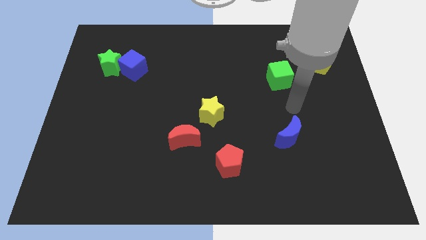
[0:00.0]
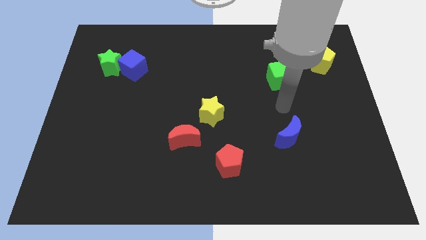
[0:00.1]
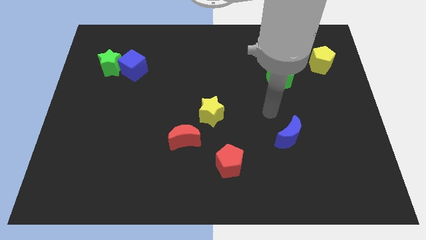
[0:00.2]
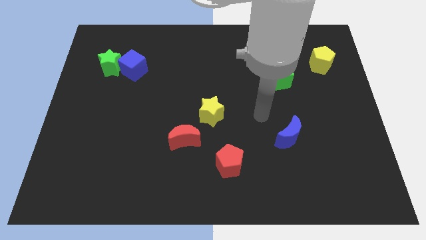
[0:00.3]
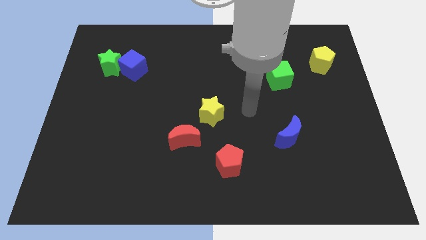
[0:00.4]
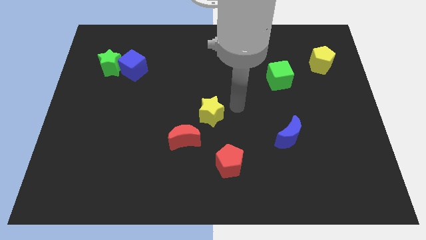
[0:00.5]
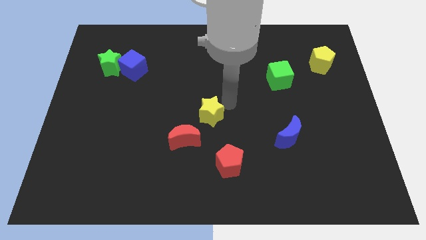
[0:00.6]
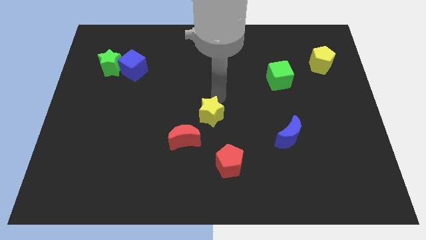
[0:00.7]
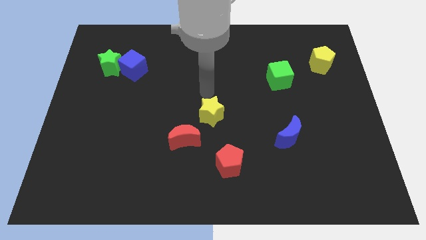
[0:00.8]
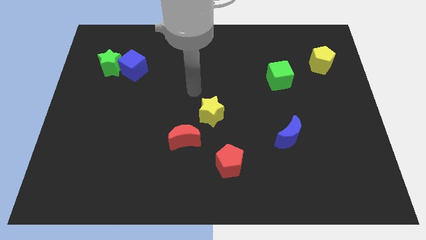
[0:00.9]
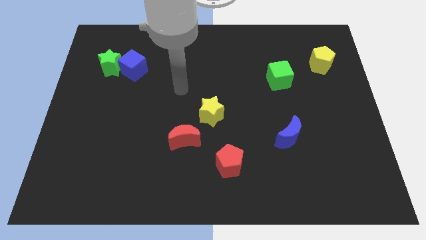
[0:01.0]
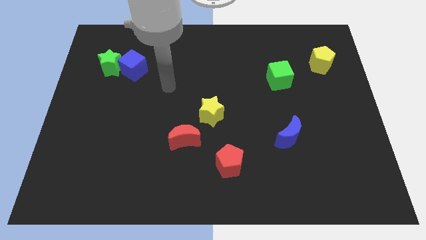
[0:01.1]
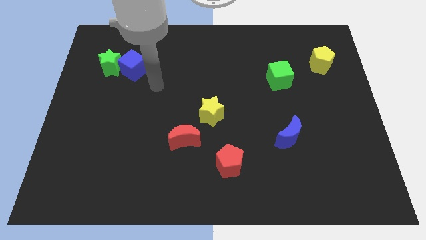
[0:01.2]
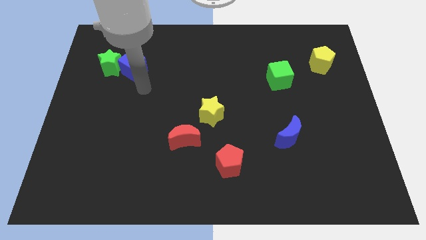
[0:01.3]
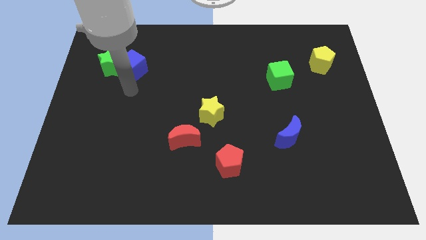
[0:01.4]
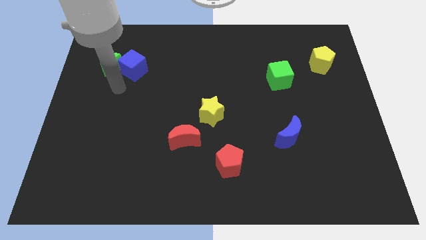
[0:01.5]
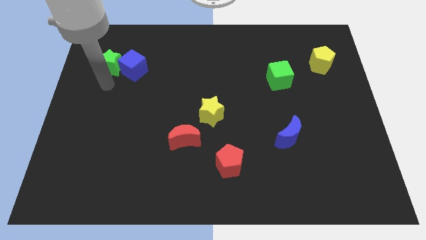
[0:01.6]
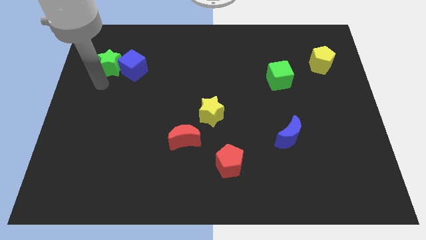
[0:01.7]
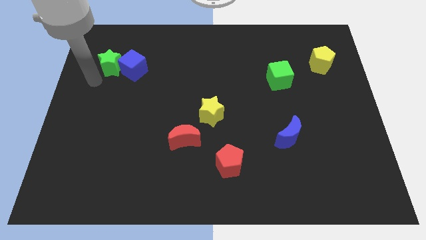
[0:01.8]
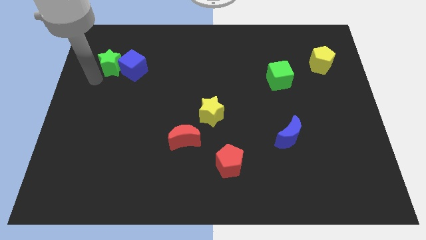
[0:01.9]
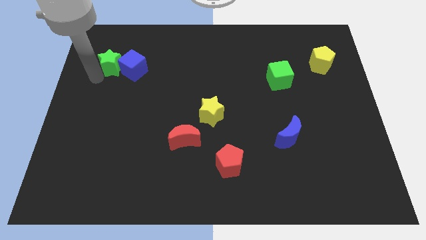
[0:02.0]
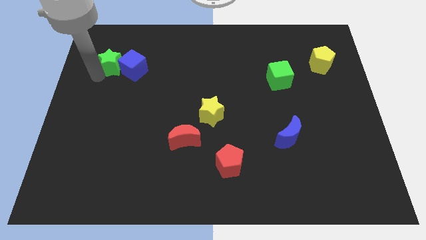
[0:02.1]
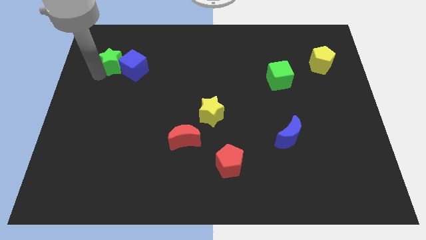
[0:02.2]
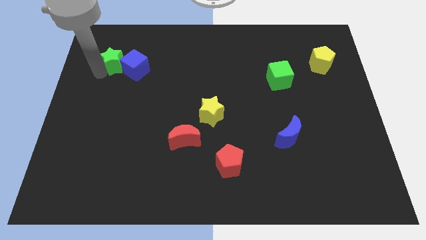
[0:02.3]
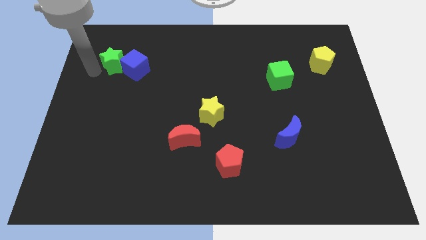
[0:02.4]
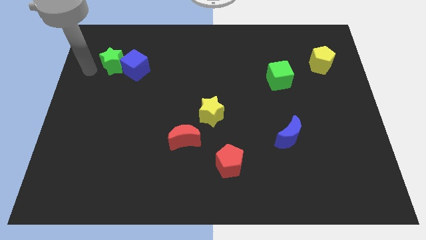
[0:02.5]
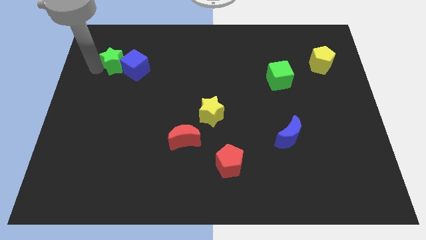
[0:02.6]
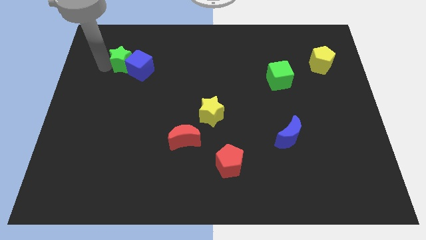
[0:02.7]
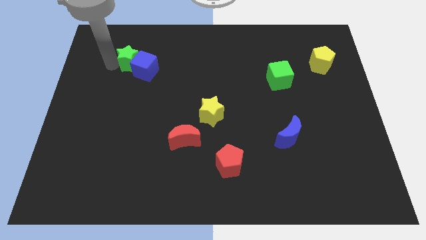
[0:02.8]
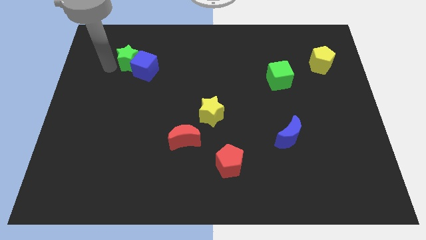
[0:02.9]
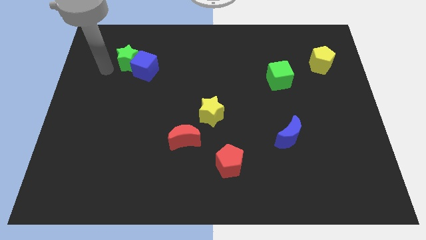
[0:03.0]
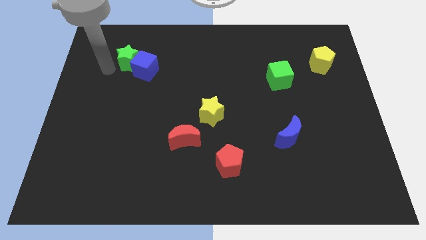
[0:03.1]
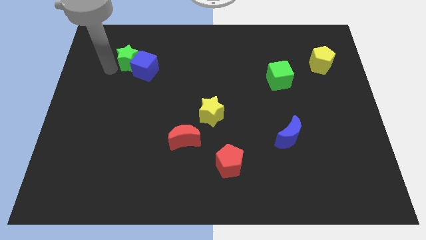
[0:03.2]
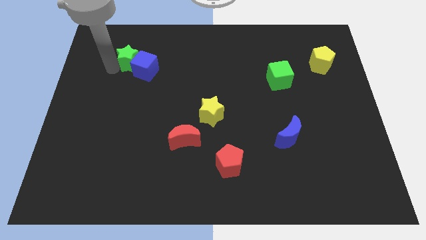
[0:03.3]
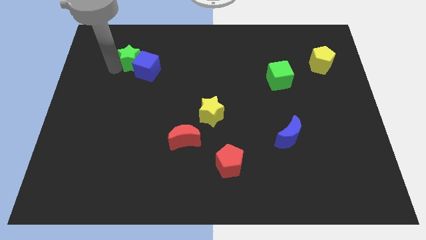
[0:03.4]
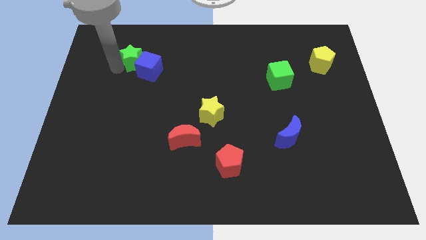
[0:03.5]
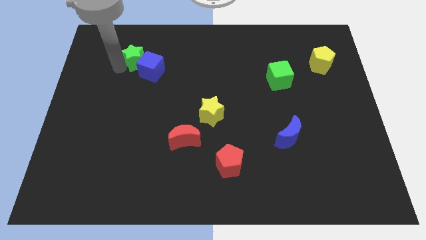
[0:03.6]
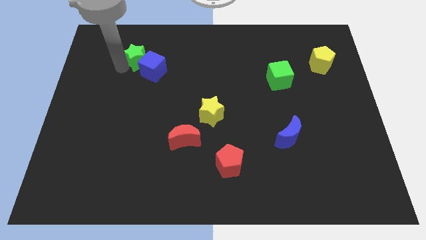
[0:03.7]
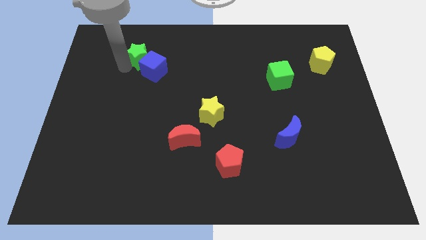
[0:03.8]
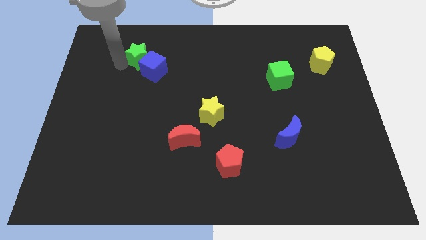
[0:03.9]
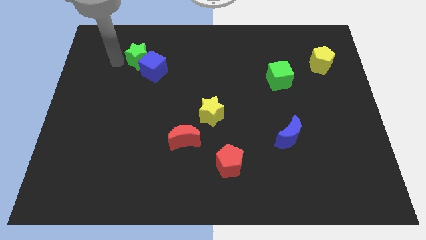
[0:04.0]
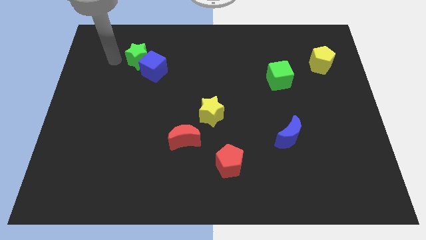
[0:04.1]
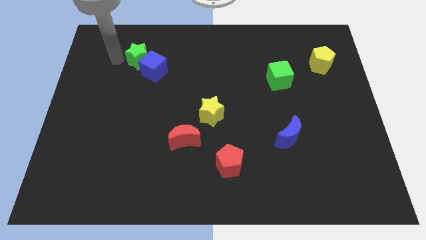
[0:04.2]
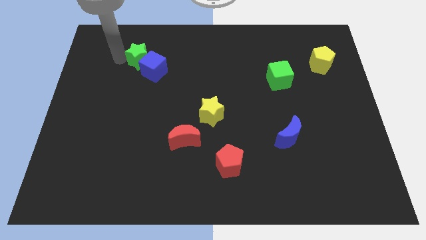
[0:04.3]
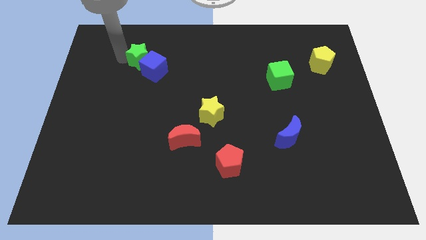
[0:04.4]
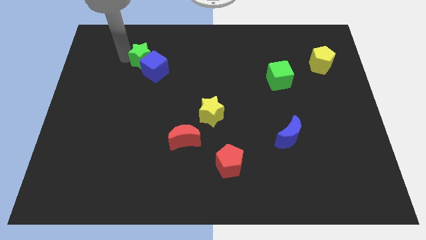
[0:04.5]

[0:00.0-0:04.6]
slide the green star a little right

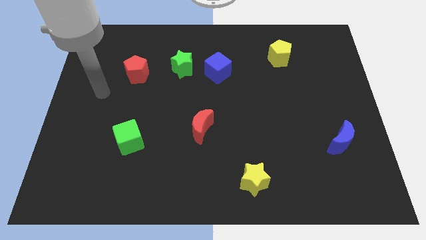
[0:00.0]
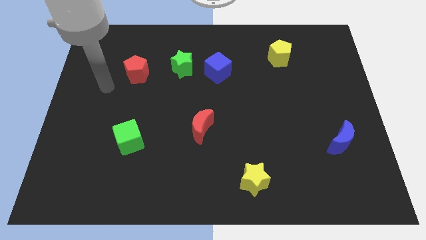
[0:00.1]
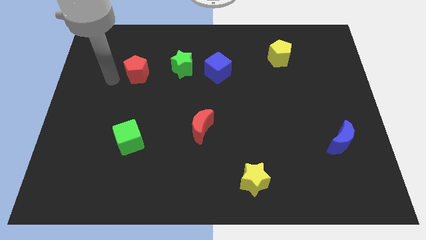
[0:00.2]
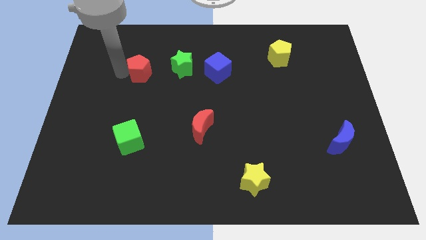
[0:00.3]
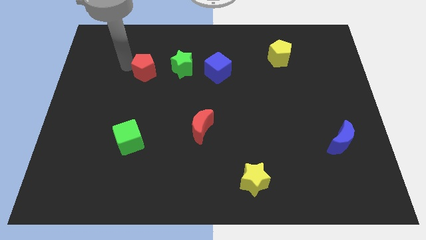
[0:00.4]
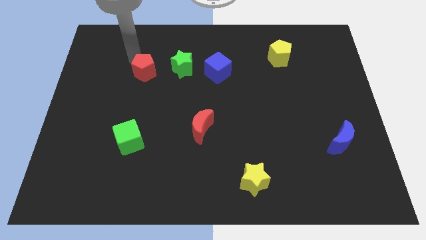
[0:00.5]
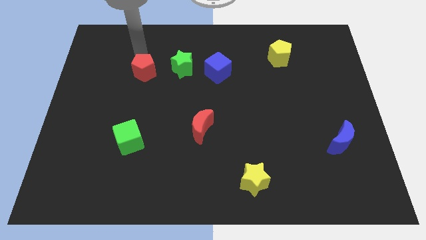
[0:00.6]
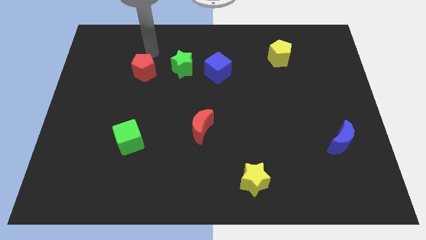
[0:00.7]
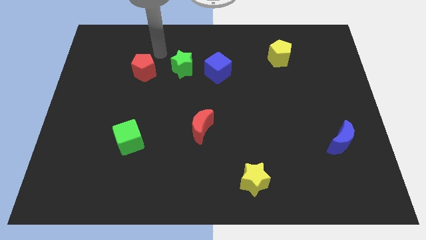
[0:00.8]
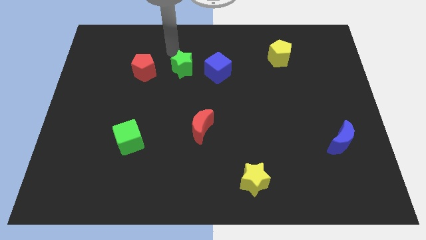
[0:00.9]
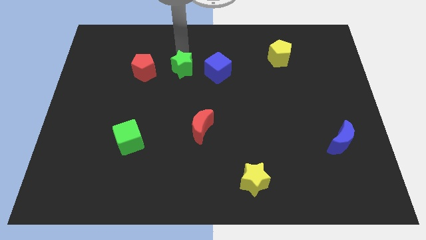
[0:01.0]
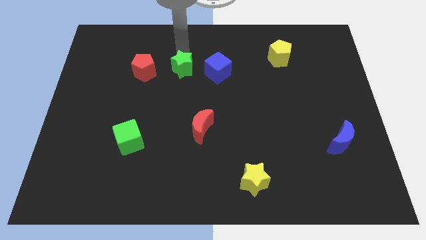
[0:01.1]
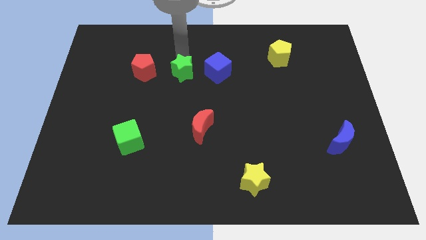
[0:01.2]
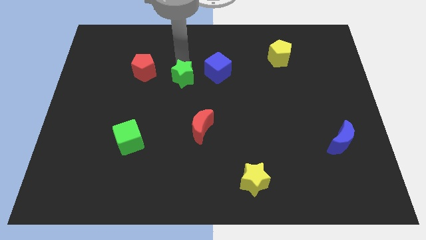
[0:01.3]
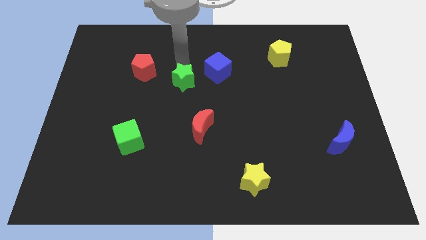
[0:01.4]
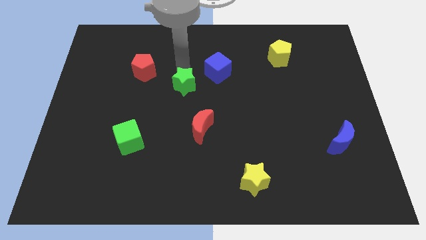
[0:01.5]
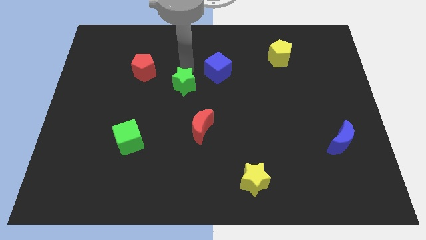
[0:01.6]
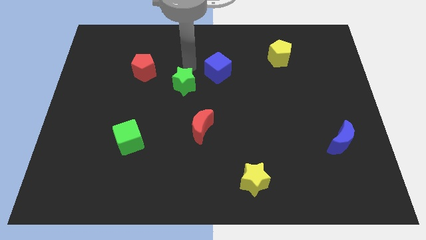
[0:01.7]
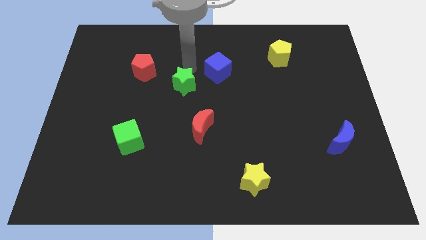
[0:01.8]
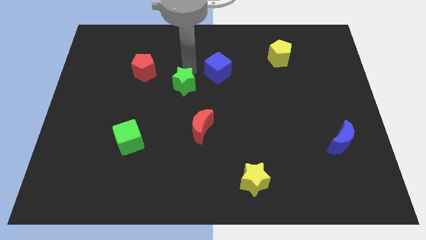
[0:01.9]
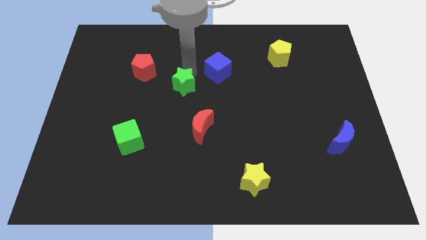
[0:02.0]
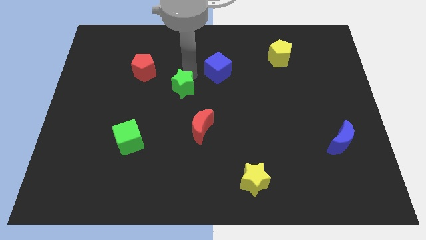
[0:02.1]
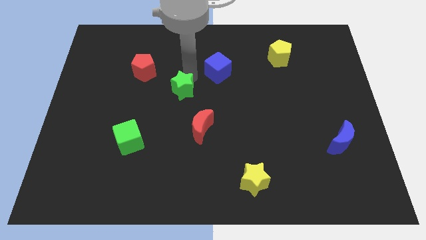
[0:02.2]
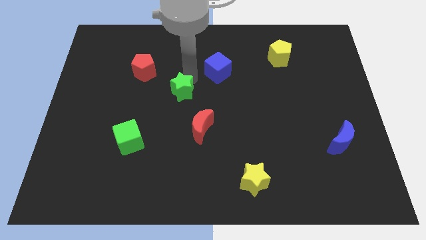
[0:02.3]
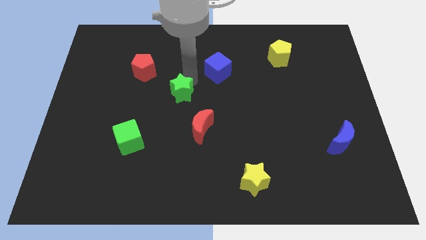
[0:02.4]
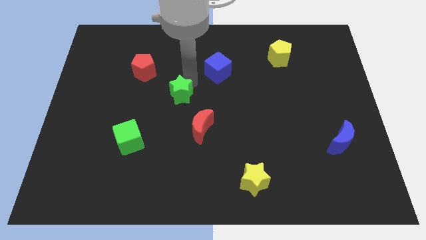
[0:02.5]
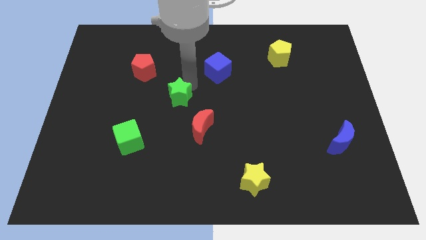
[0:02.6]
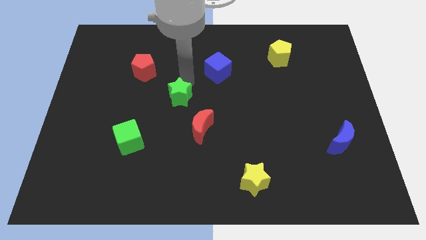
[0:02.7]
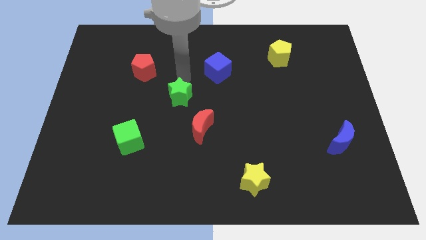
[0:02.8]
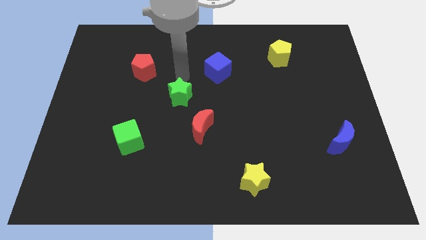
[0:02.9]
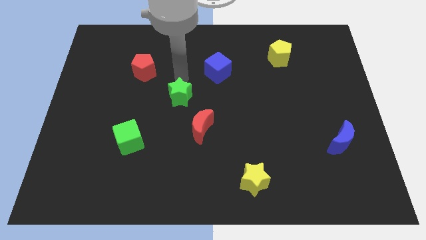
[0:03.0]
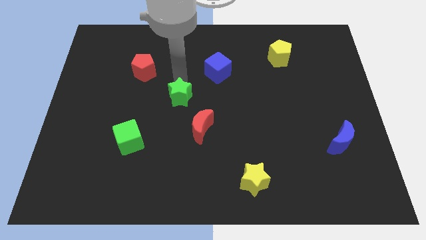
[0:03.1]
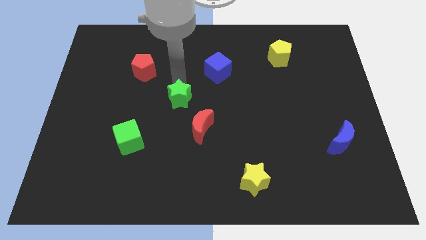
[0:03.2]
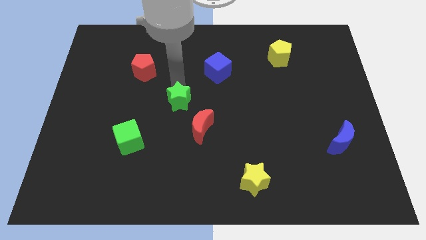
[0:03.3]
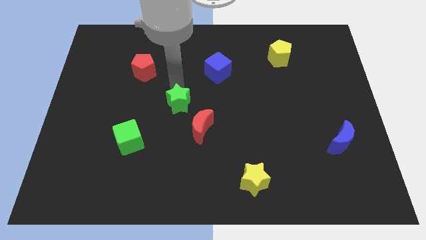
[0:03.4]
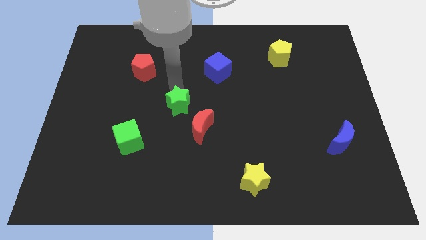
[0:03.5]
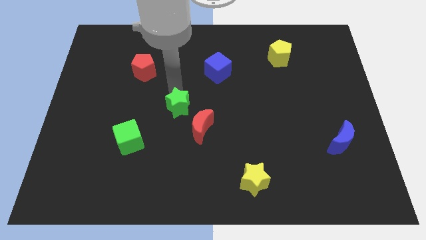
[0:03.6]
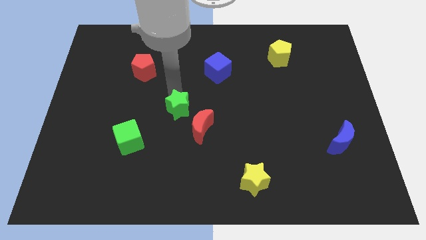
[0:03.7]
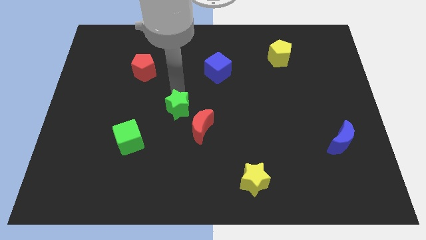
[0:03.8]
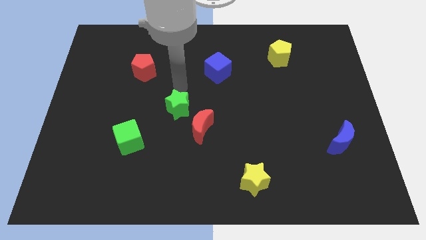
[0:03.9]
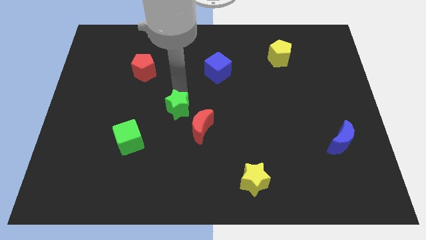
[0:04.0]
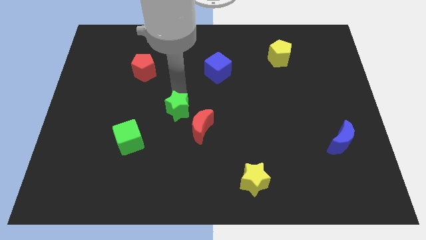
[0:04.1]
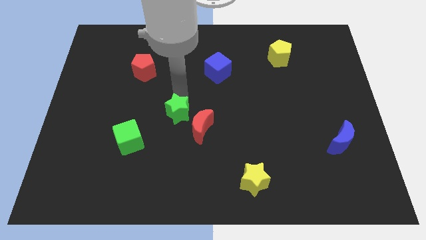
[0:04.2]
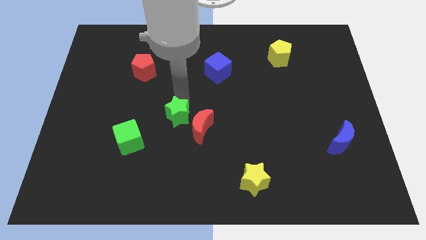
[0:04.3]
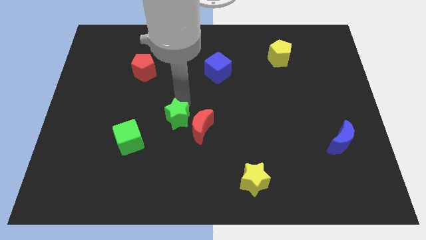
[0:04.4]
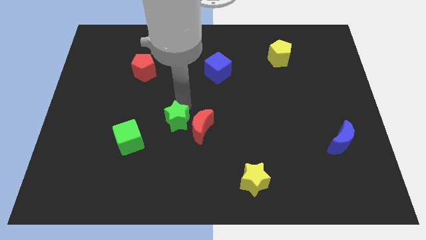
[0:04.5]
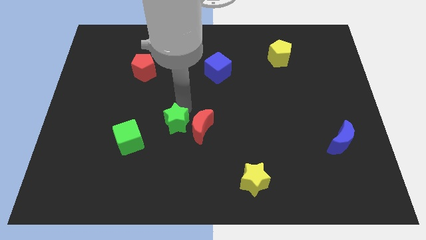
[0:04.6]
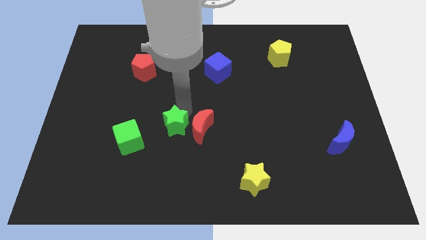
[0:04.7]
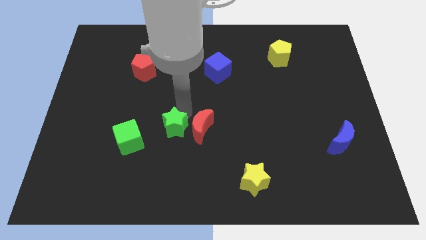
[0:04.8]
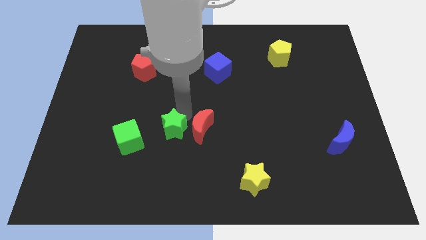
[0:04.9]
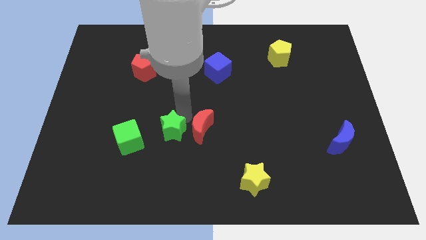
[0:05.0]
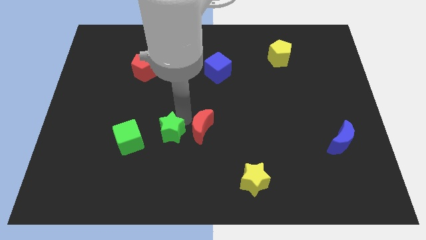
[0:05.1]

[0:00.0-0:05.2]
slide the green star downwards
